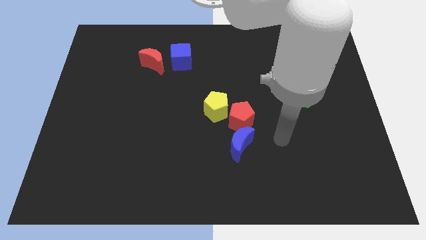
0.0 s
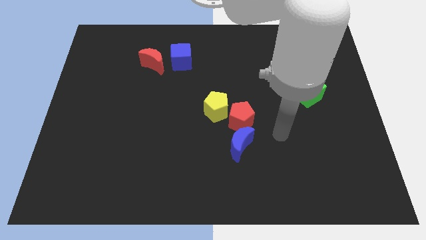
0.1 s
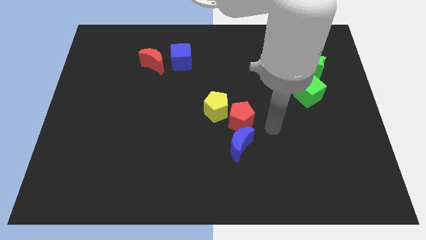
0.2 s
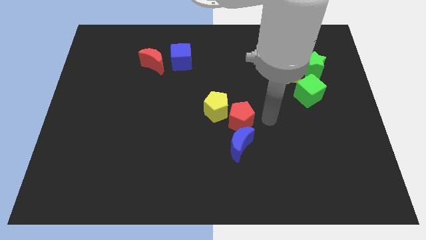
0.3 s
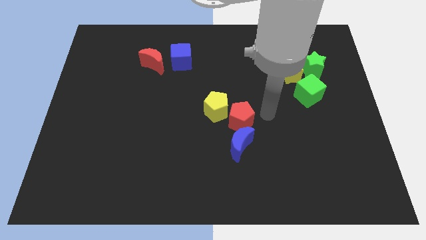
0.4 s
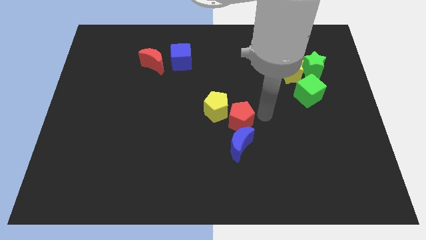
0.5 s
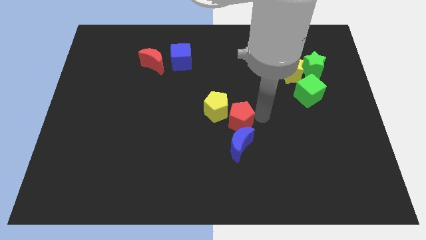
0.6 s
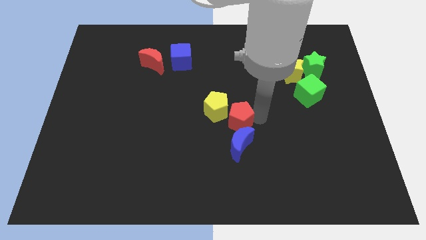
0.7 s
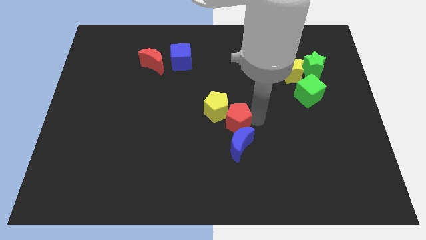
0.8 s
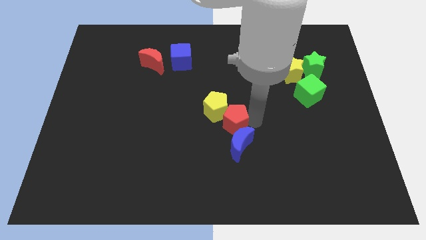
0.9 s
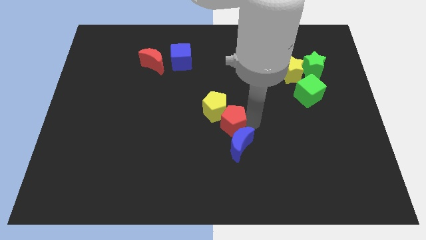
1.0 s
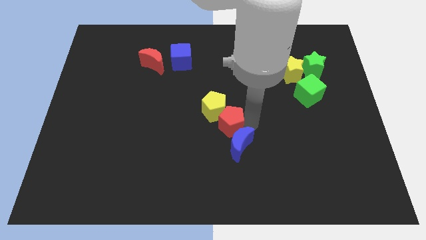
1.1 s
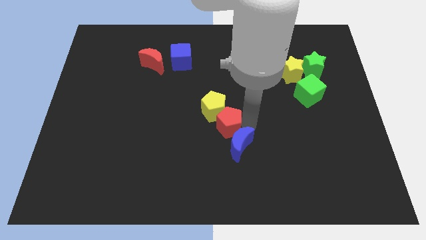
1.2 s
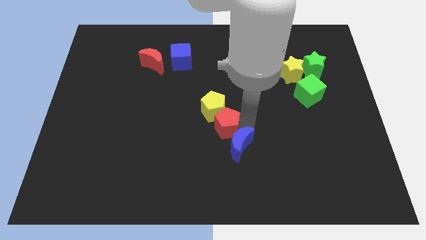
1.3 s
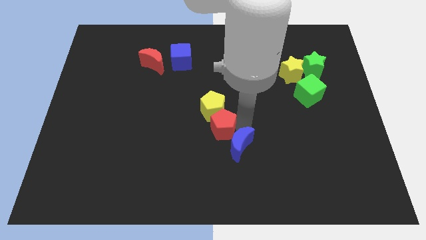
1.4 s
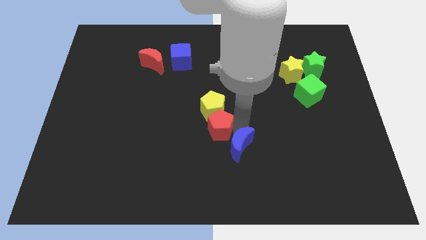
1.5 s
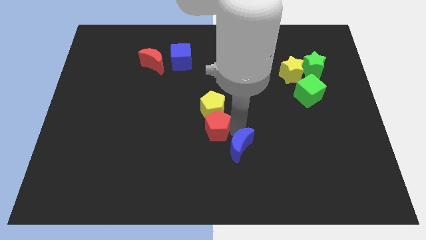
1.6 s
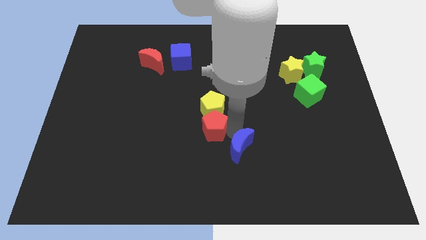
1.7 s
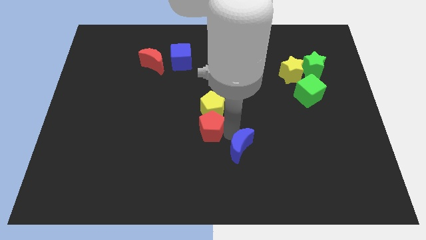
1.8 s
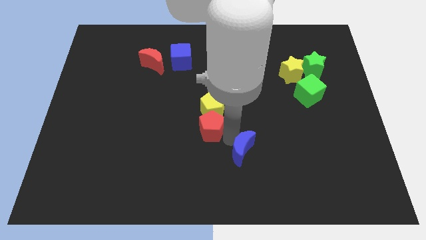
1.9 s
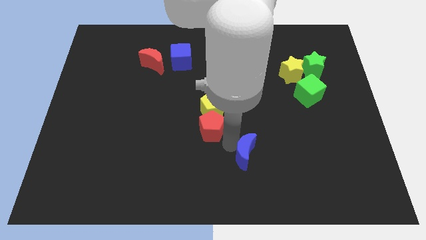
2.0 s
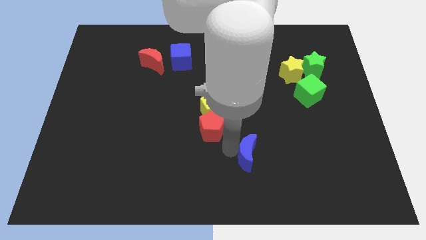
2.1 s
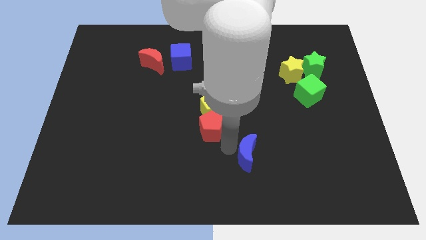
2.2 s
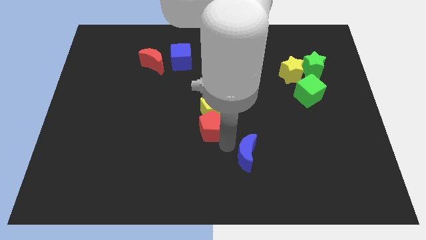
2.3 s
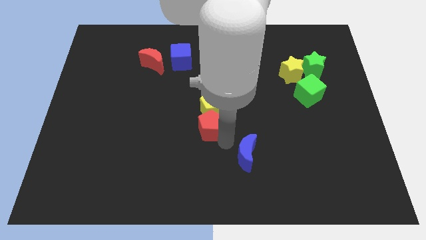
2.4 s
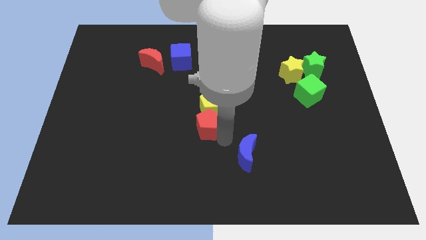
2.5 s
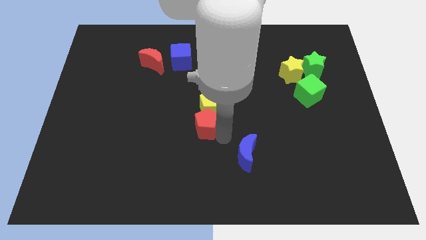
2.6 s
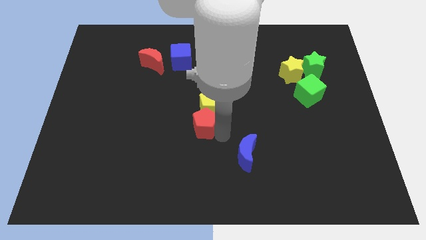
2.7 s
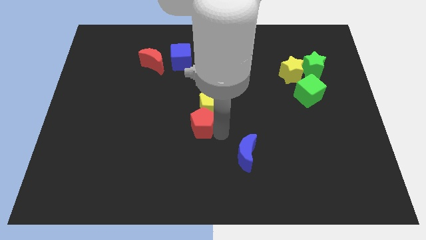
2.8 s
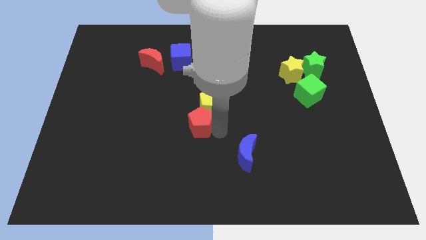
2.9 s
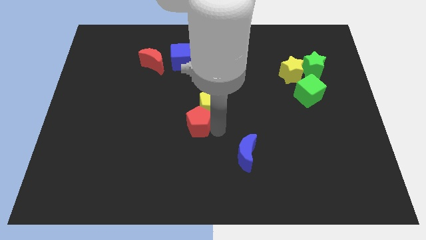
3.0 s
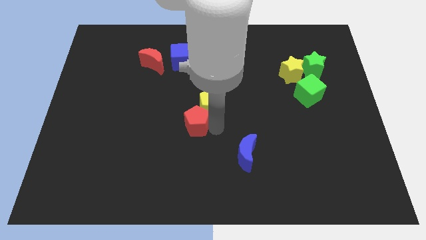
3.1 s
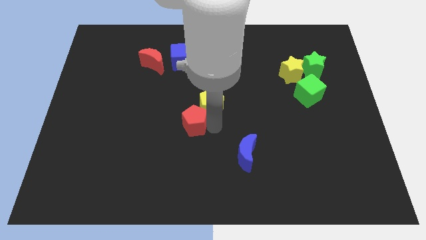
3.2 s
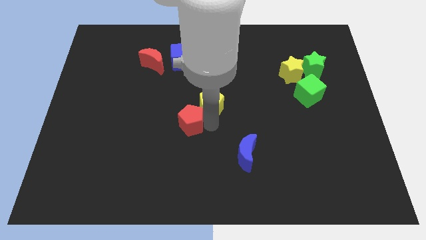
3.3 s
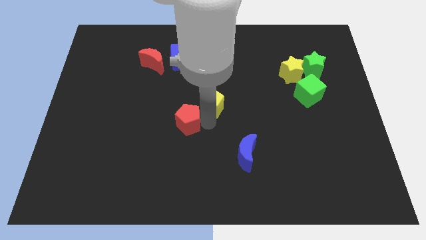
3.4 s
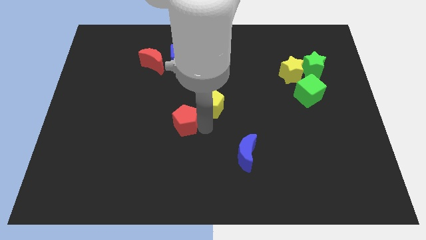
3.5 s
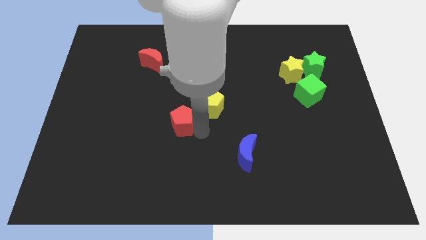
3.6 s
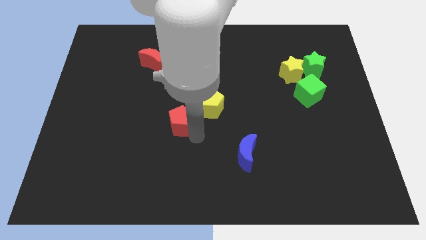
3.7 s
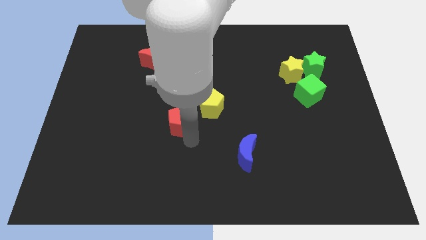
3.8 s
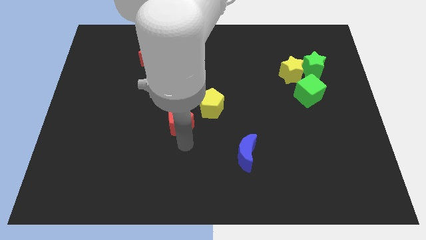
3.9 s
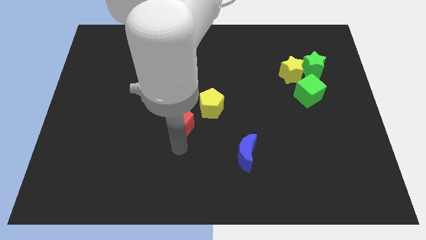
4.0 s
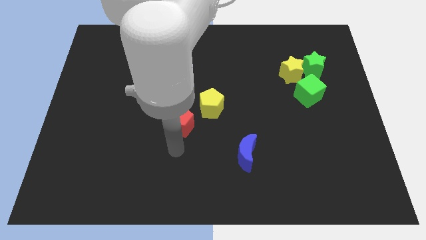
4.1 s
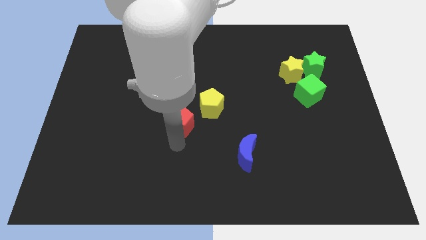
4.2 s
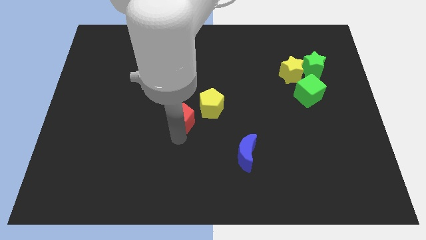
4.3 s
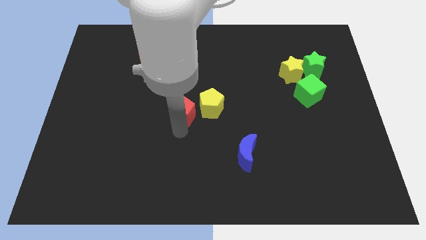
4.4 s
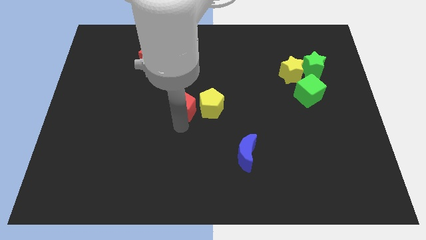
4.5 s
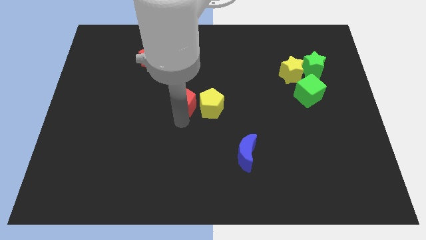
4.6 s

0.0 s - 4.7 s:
push the red pentagon below the blue cube

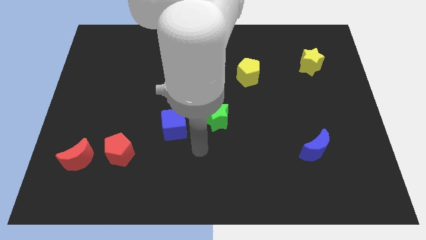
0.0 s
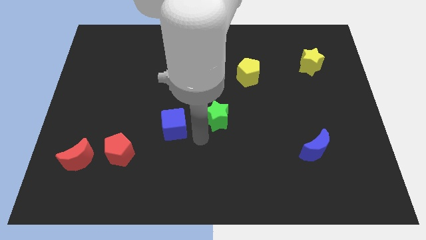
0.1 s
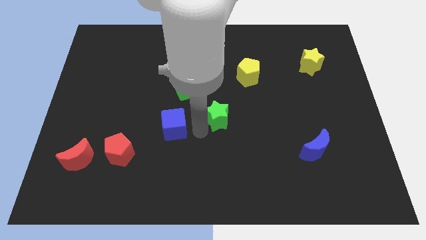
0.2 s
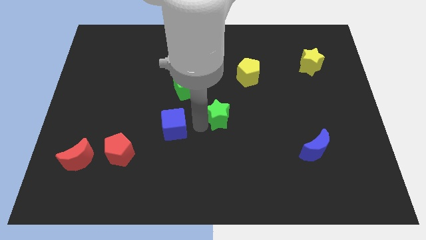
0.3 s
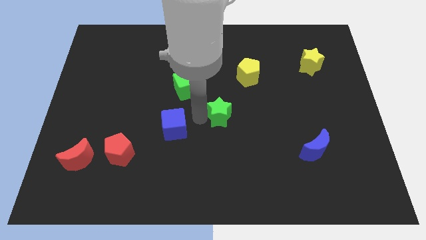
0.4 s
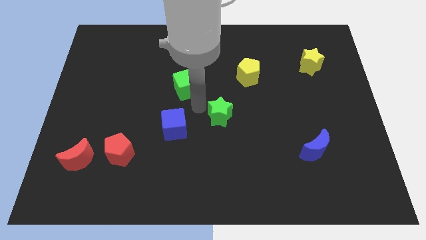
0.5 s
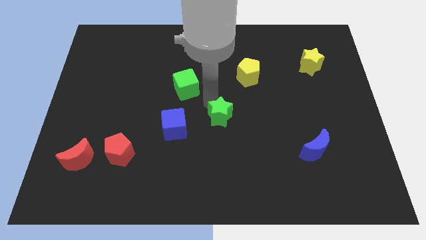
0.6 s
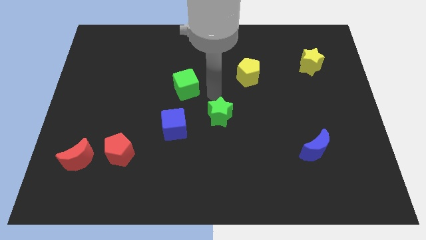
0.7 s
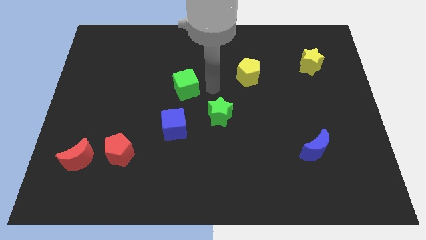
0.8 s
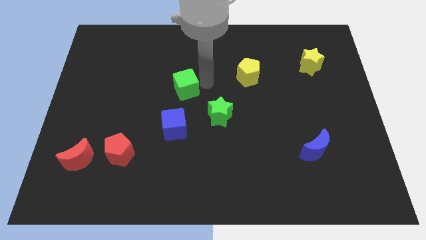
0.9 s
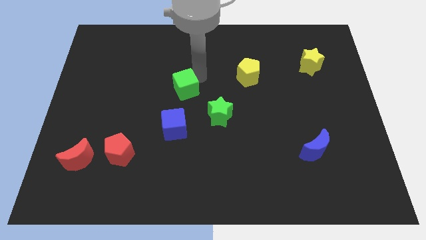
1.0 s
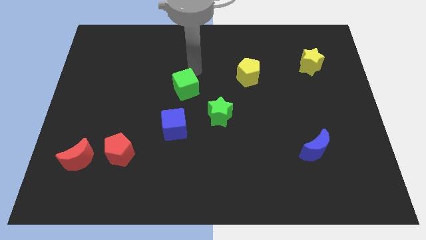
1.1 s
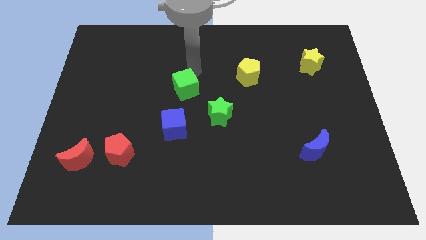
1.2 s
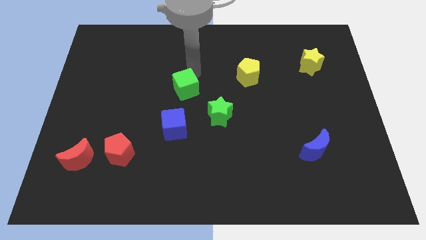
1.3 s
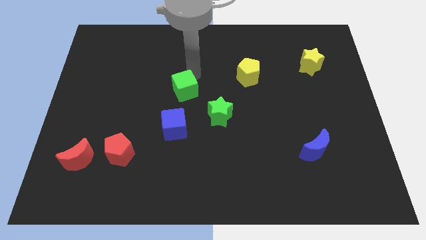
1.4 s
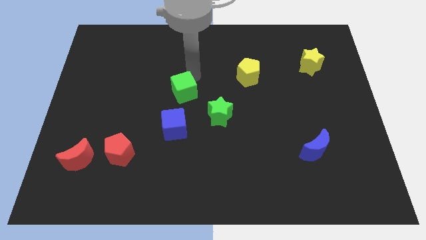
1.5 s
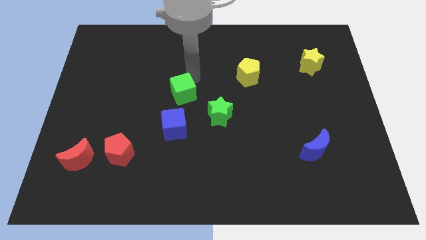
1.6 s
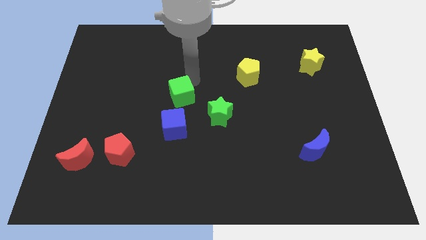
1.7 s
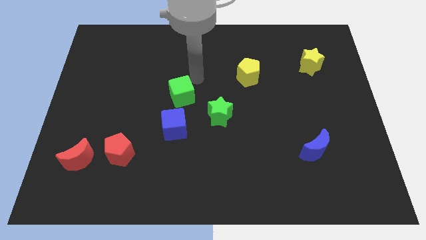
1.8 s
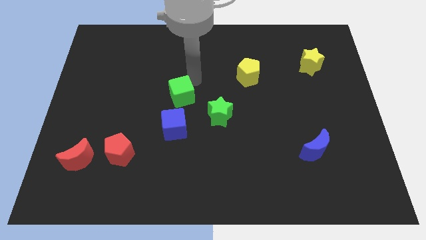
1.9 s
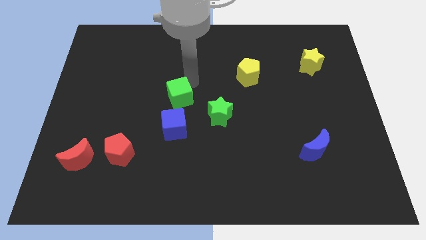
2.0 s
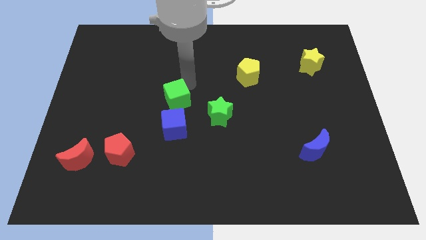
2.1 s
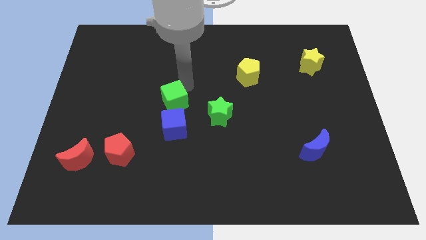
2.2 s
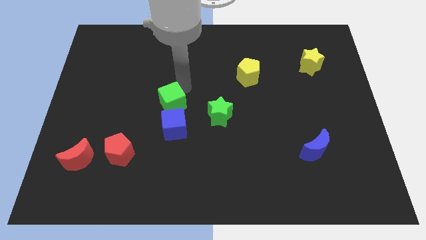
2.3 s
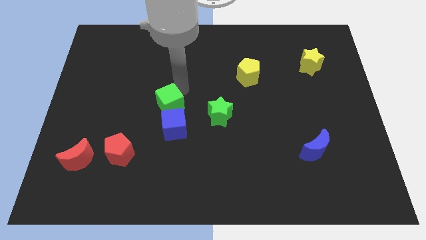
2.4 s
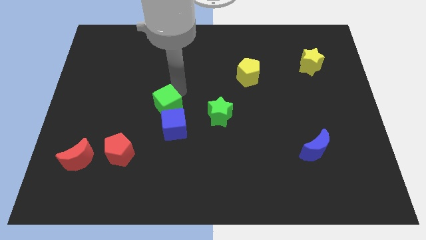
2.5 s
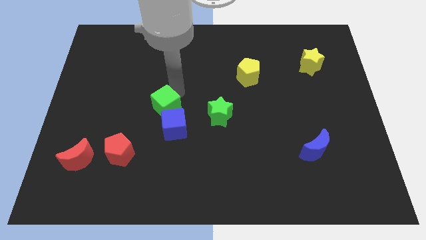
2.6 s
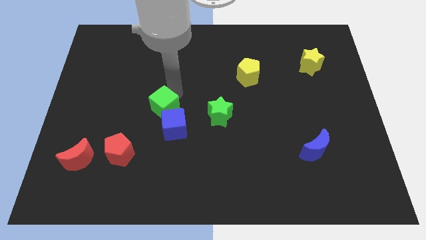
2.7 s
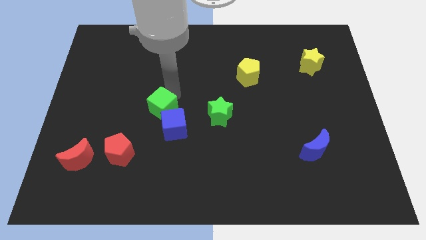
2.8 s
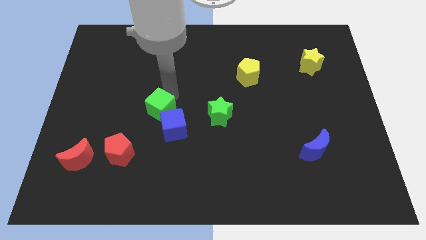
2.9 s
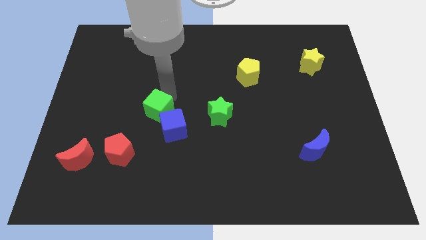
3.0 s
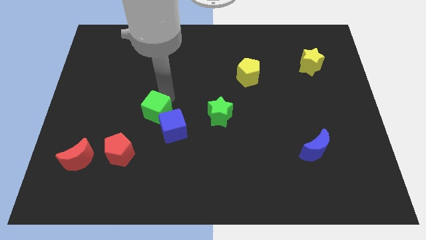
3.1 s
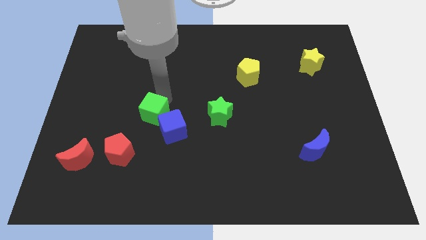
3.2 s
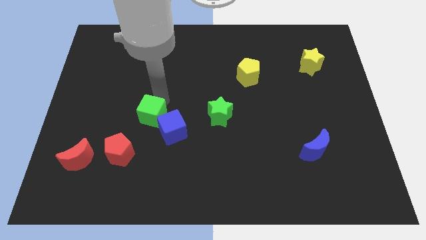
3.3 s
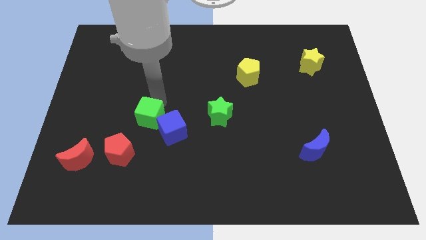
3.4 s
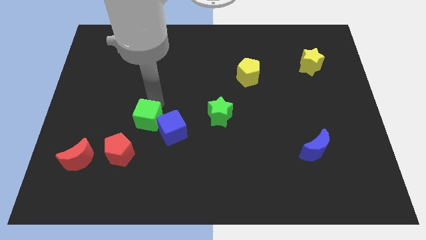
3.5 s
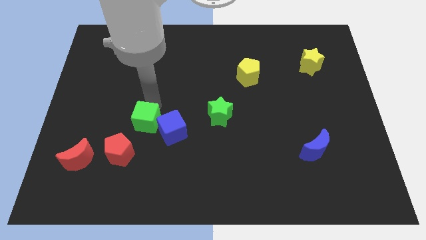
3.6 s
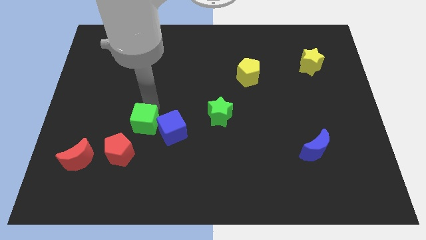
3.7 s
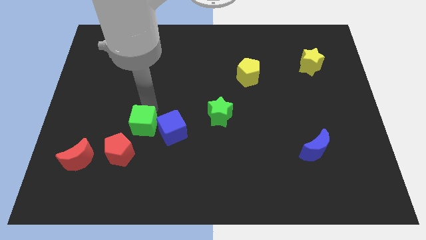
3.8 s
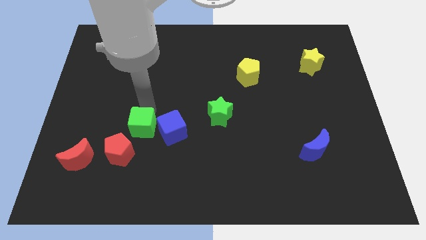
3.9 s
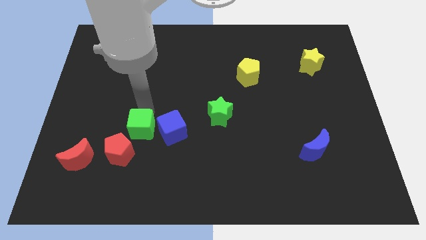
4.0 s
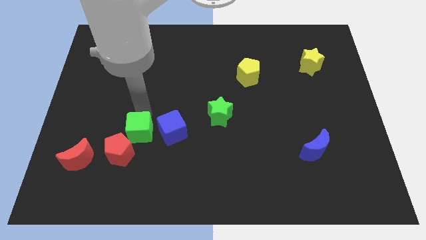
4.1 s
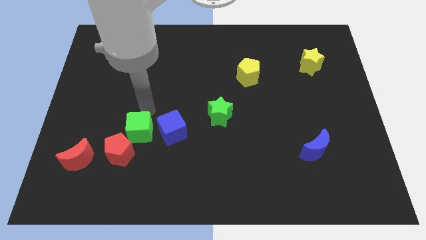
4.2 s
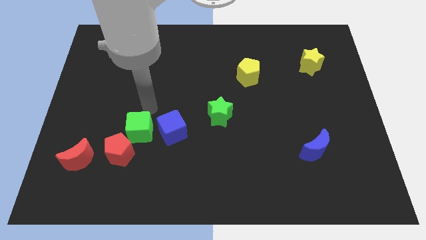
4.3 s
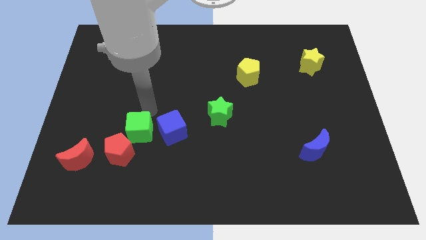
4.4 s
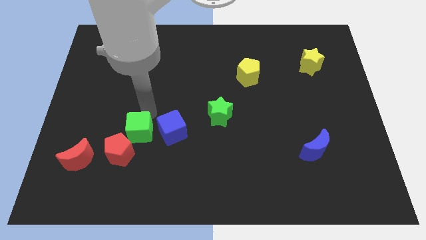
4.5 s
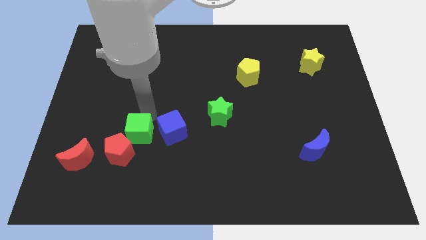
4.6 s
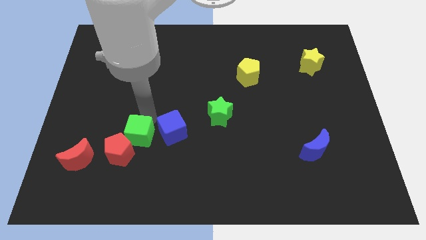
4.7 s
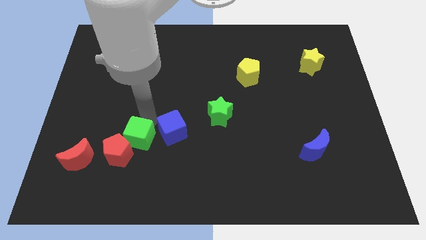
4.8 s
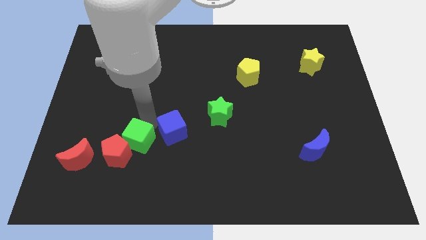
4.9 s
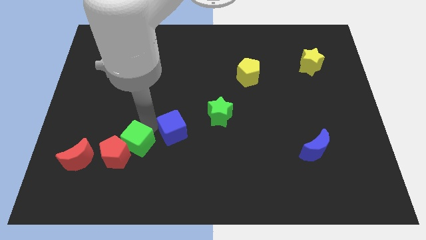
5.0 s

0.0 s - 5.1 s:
slide the green cube just right of the red moon
